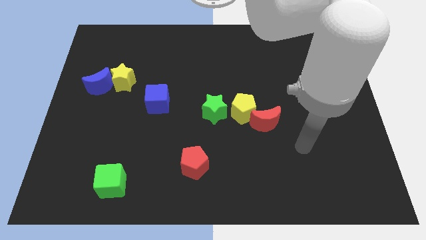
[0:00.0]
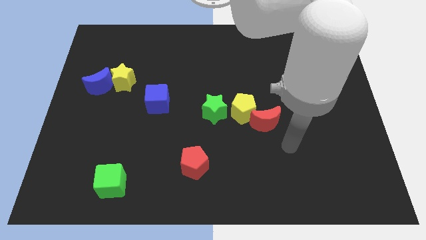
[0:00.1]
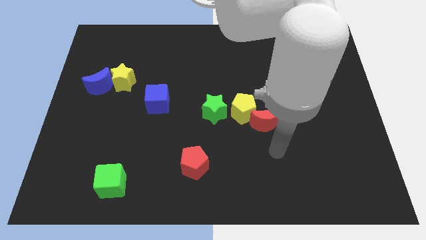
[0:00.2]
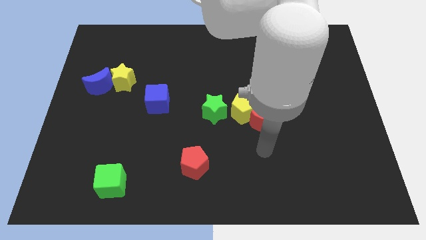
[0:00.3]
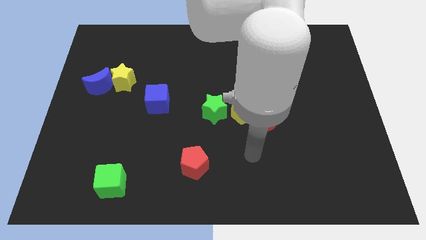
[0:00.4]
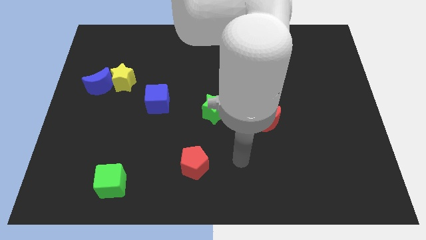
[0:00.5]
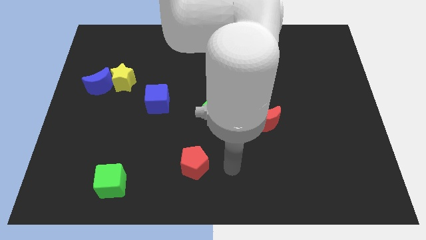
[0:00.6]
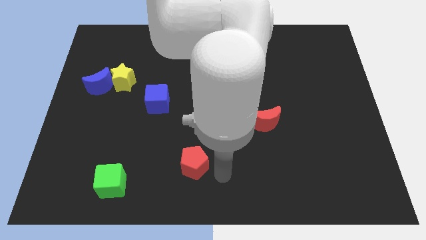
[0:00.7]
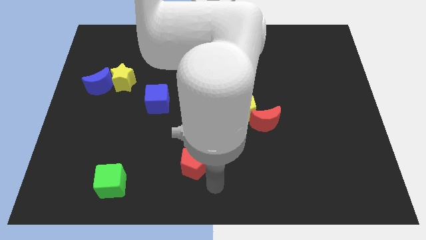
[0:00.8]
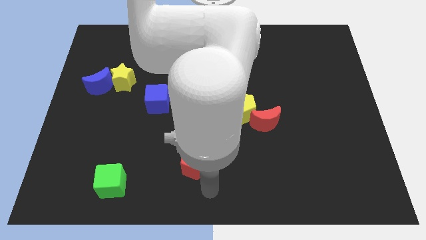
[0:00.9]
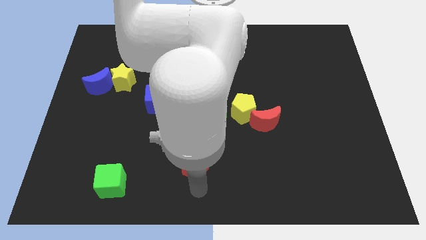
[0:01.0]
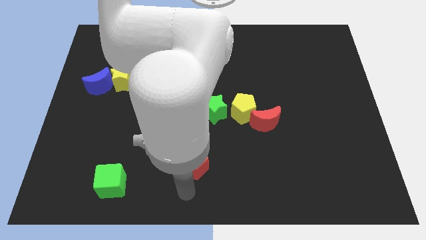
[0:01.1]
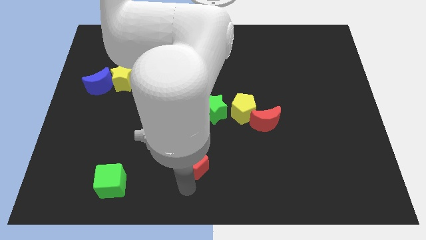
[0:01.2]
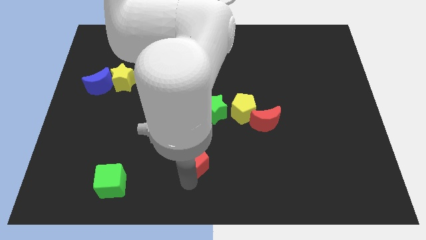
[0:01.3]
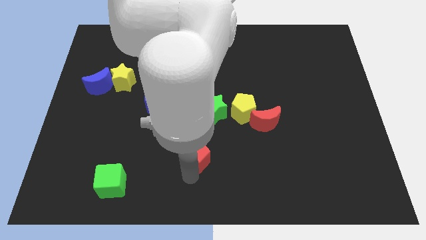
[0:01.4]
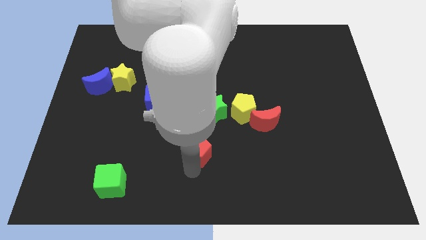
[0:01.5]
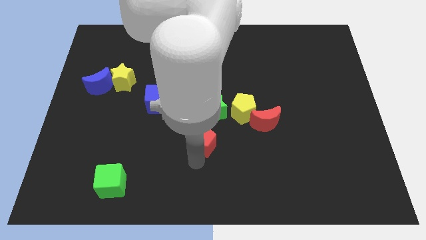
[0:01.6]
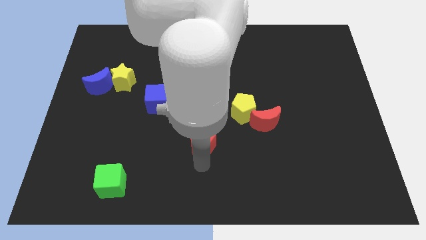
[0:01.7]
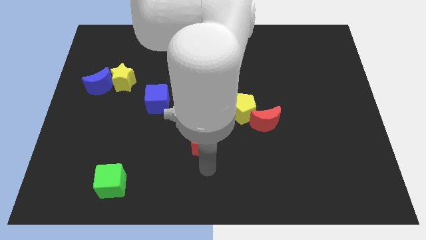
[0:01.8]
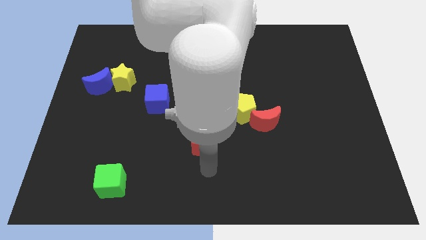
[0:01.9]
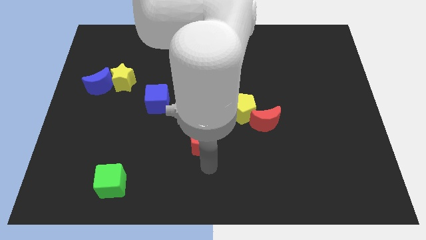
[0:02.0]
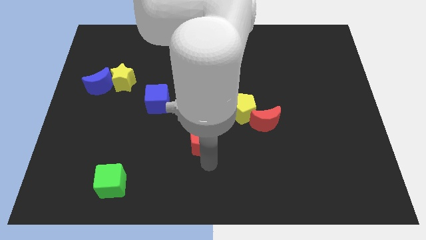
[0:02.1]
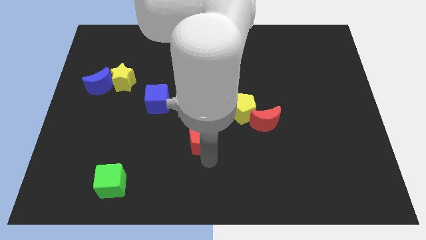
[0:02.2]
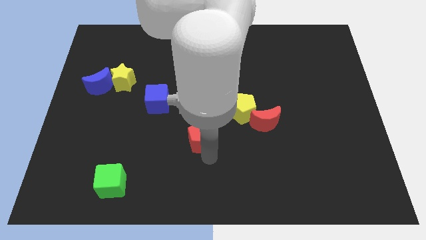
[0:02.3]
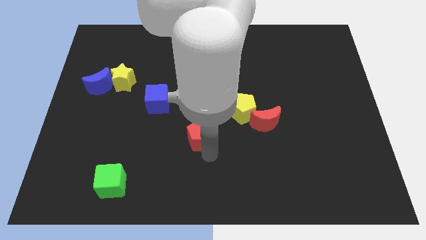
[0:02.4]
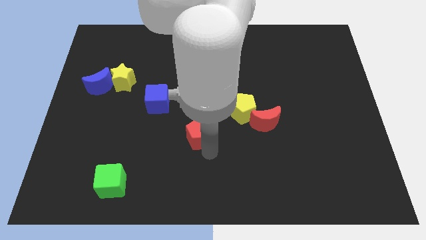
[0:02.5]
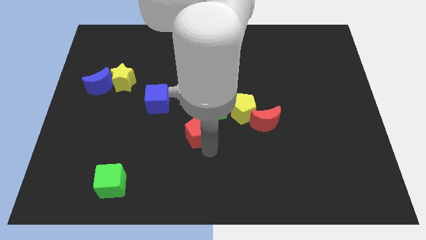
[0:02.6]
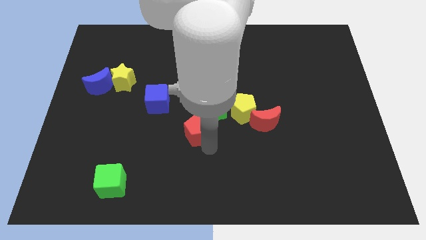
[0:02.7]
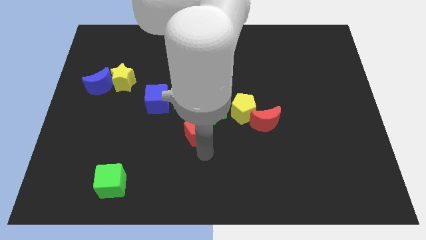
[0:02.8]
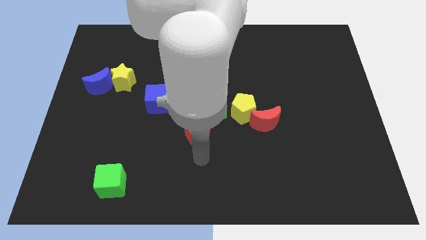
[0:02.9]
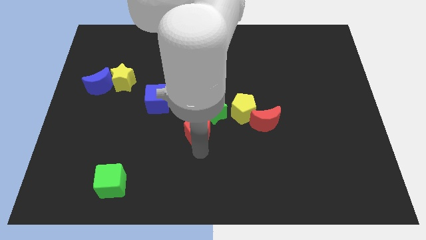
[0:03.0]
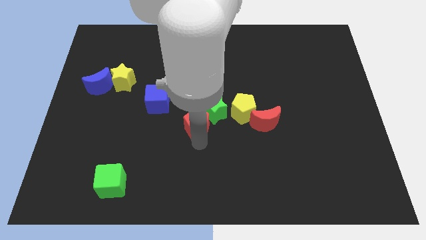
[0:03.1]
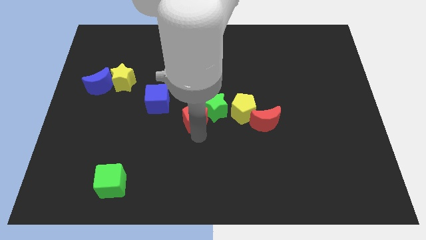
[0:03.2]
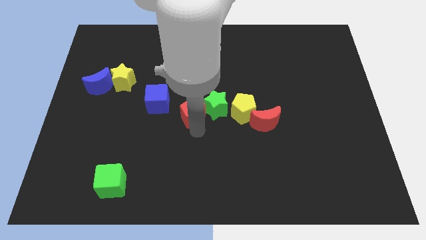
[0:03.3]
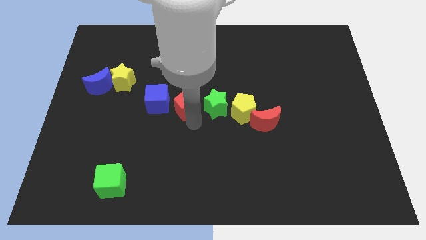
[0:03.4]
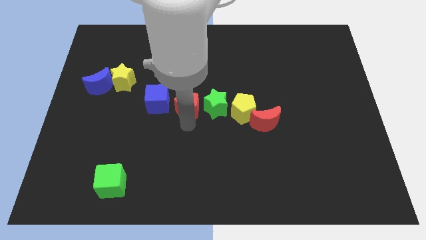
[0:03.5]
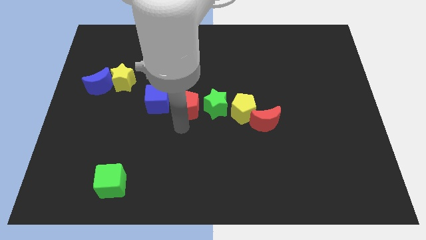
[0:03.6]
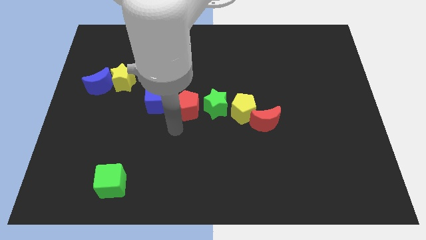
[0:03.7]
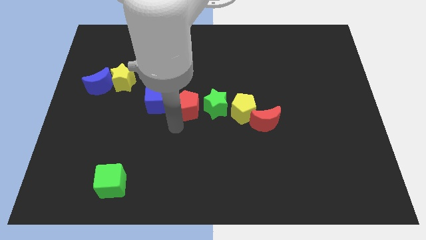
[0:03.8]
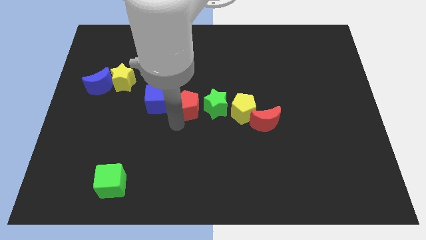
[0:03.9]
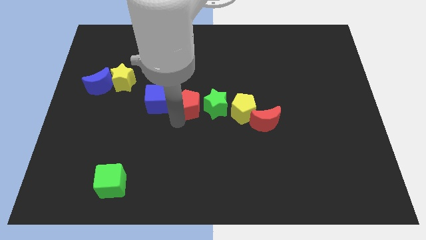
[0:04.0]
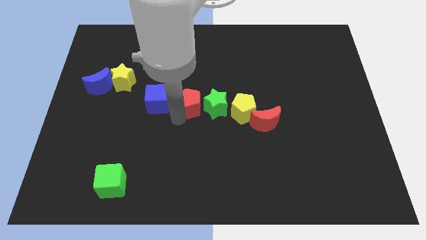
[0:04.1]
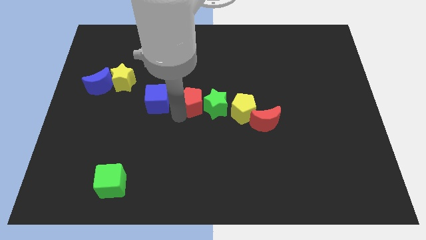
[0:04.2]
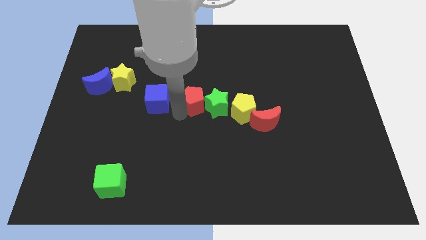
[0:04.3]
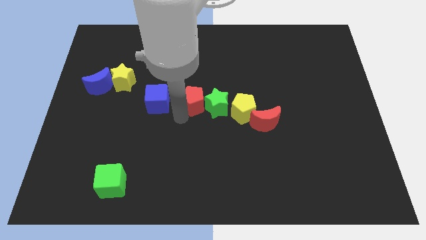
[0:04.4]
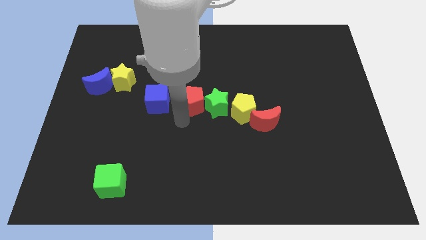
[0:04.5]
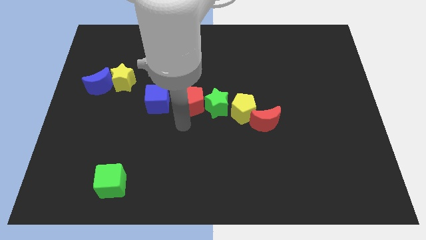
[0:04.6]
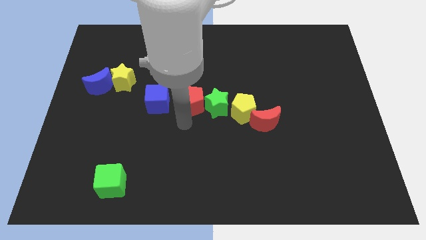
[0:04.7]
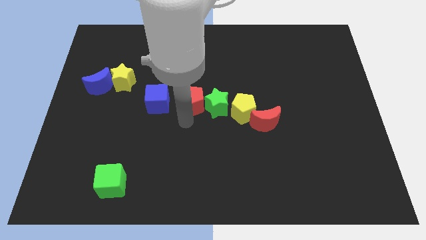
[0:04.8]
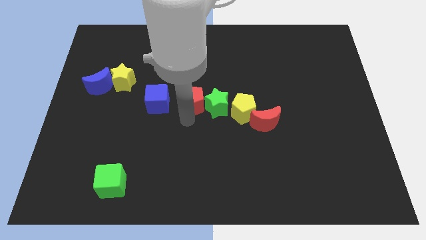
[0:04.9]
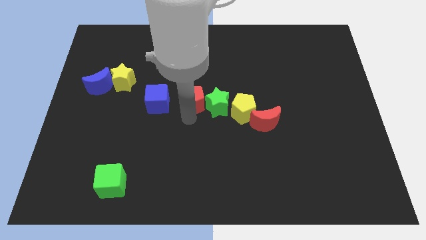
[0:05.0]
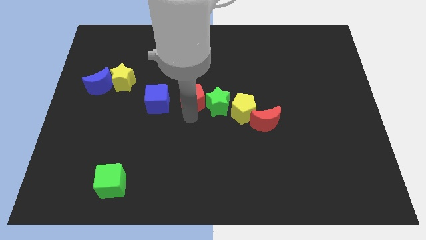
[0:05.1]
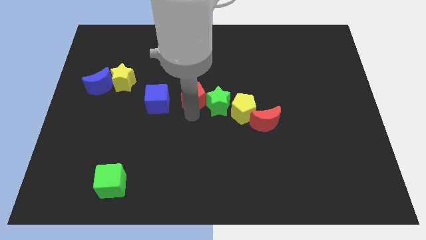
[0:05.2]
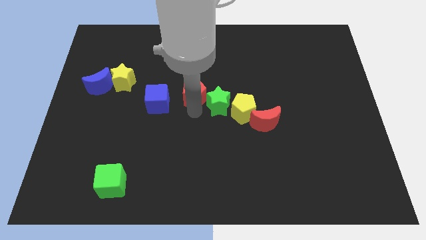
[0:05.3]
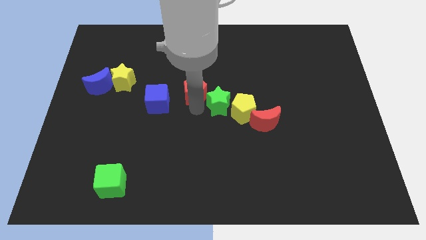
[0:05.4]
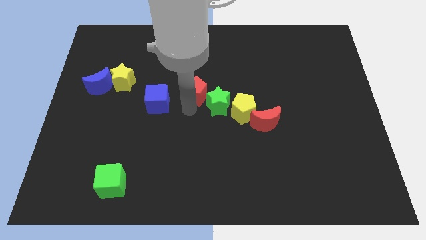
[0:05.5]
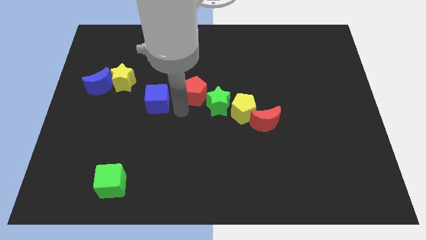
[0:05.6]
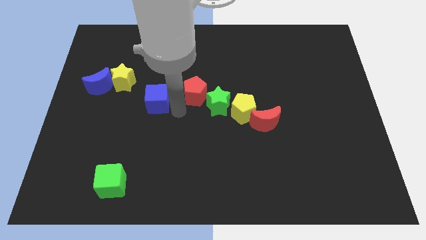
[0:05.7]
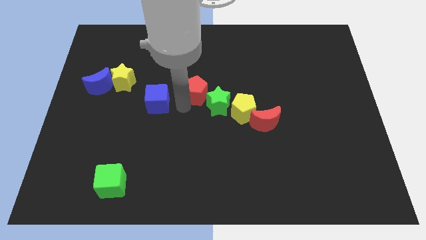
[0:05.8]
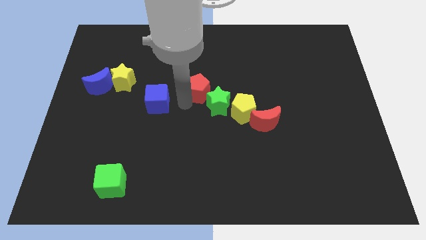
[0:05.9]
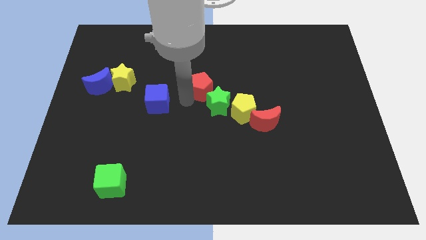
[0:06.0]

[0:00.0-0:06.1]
move the red pentagon above the green star
